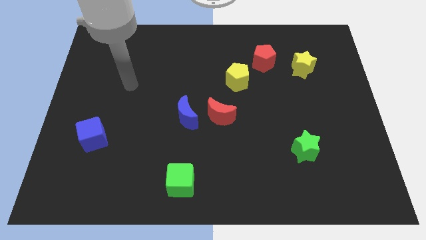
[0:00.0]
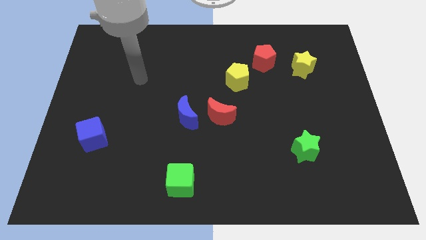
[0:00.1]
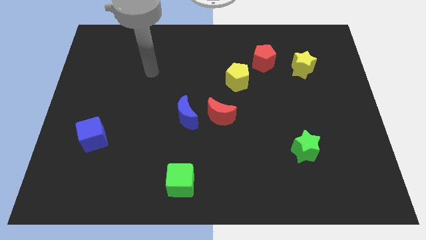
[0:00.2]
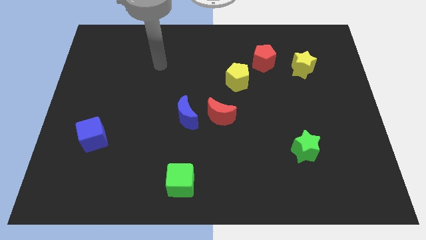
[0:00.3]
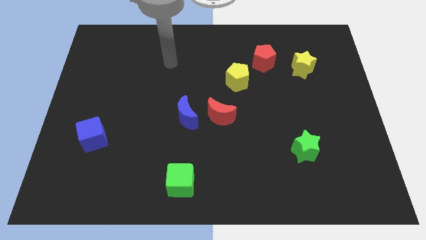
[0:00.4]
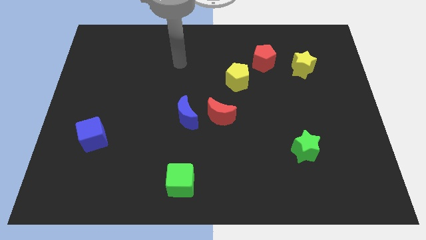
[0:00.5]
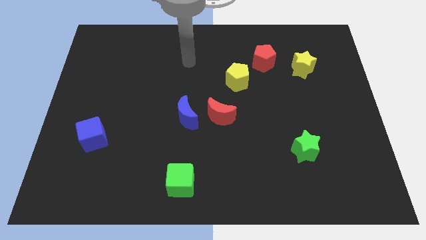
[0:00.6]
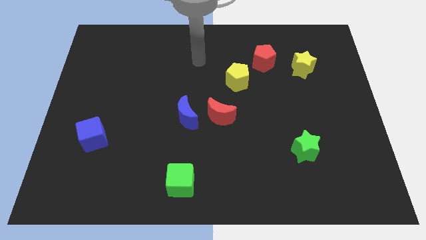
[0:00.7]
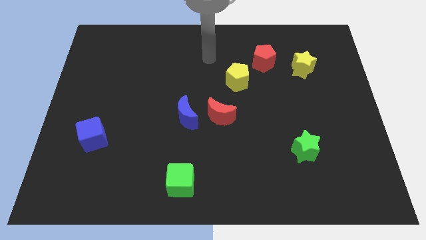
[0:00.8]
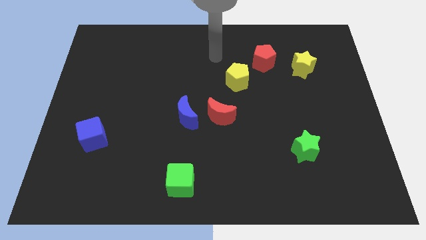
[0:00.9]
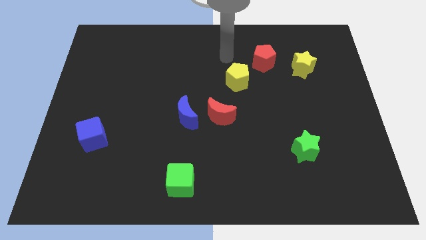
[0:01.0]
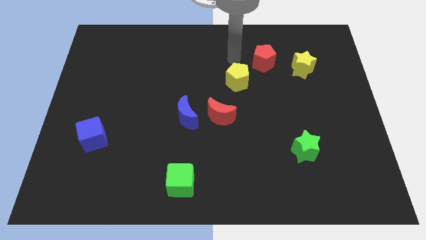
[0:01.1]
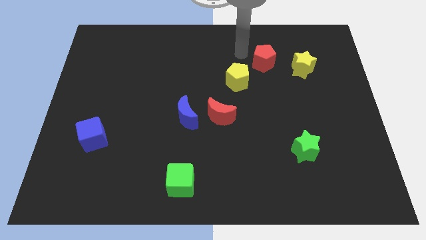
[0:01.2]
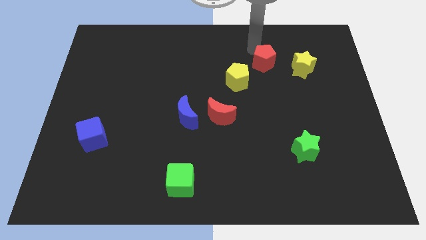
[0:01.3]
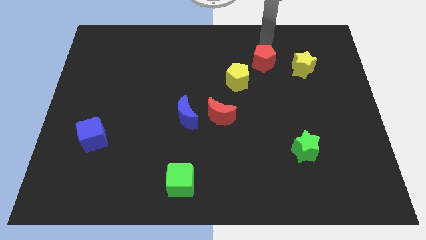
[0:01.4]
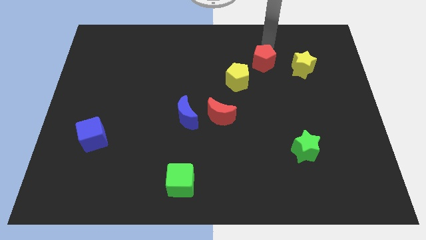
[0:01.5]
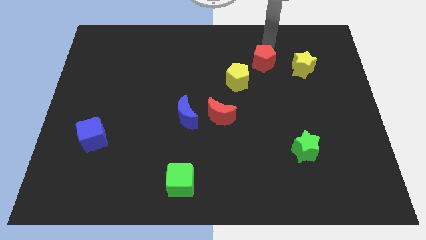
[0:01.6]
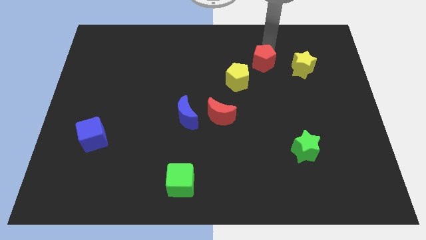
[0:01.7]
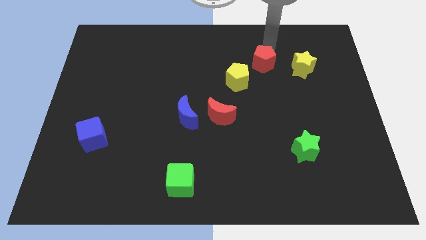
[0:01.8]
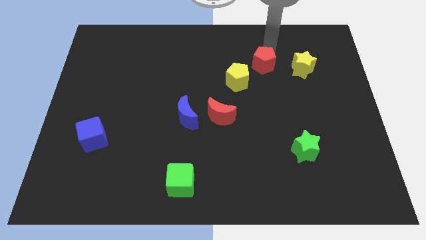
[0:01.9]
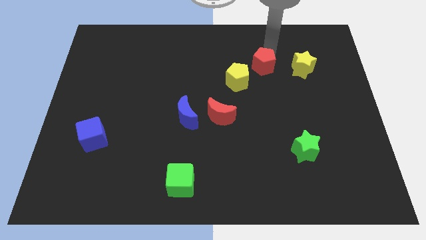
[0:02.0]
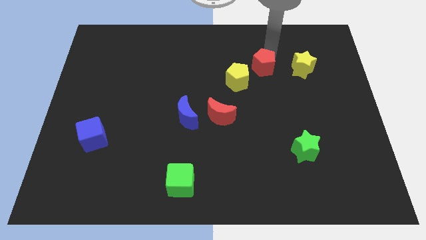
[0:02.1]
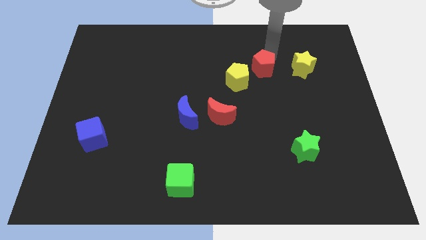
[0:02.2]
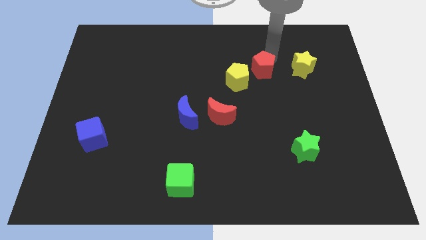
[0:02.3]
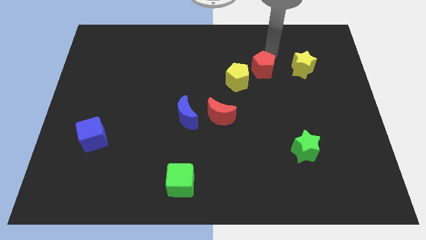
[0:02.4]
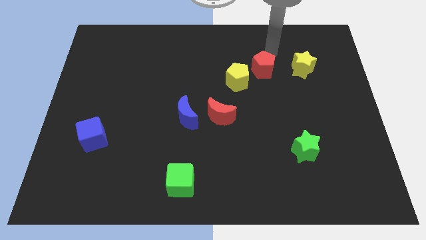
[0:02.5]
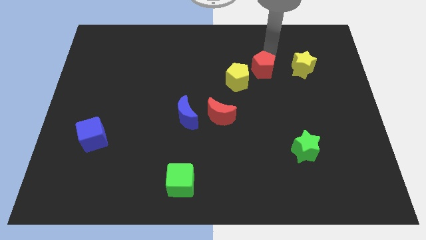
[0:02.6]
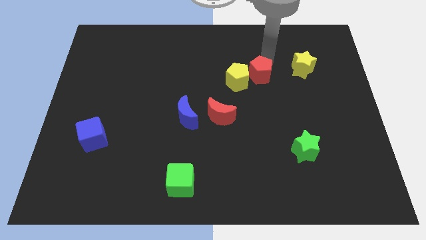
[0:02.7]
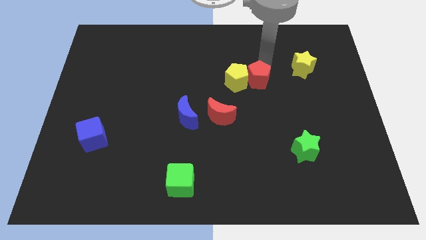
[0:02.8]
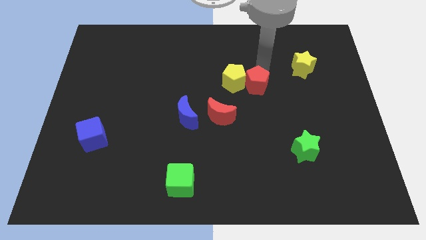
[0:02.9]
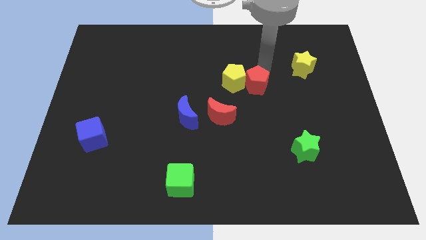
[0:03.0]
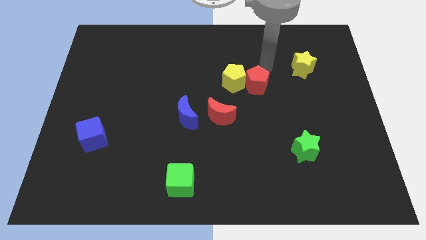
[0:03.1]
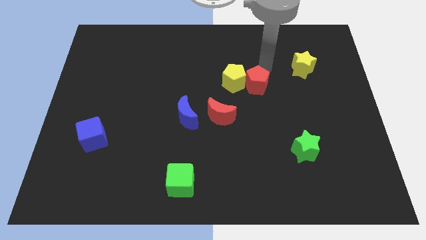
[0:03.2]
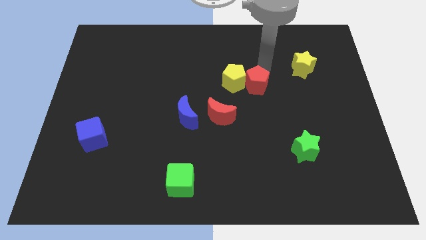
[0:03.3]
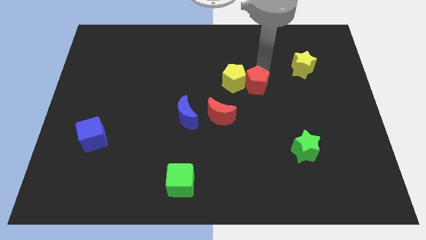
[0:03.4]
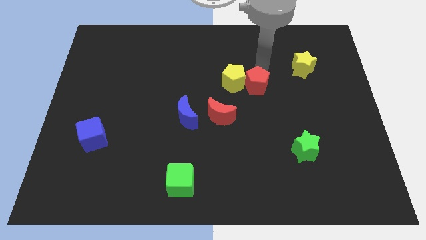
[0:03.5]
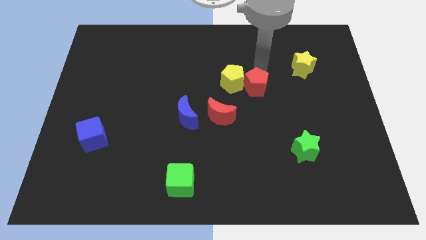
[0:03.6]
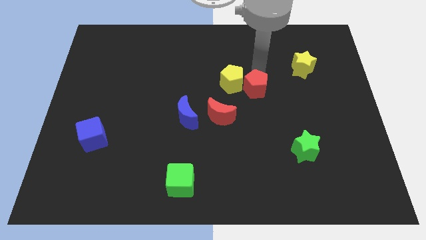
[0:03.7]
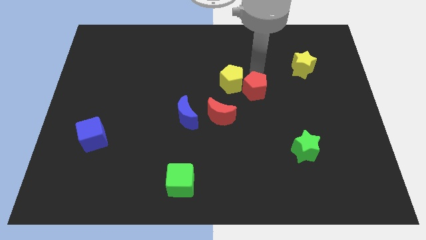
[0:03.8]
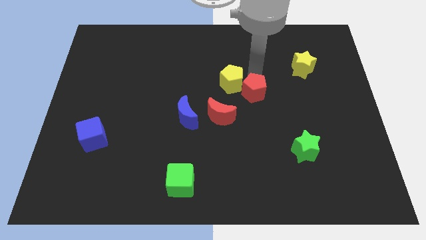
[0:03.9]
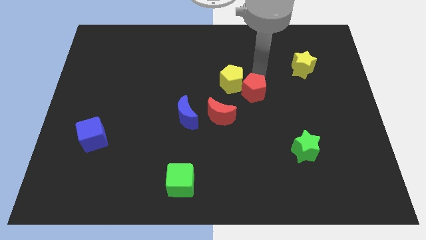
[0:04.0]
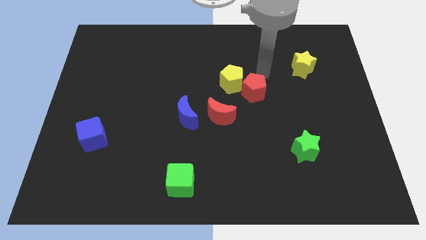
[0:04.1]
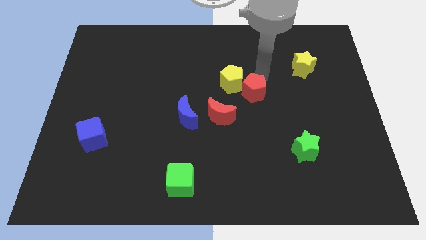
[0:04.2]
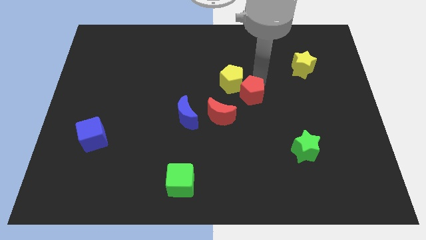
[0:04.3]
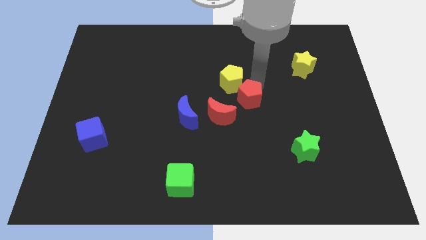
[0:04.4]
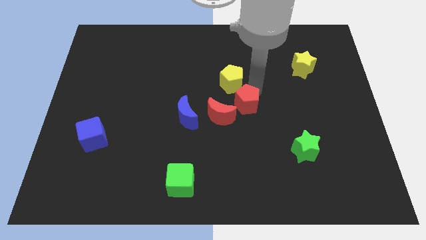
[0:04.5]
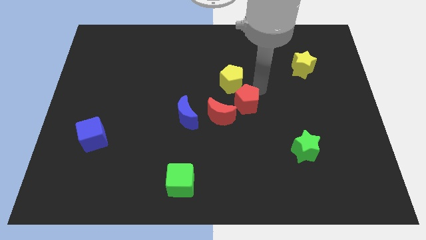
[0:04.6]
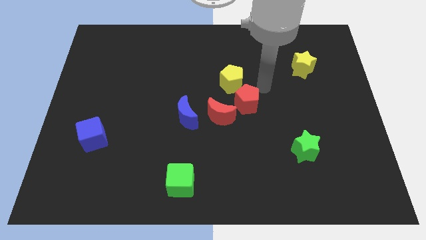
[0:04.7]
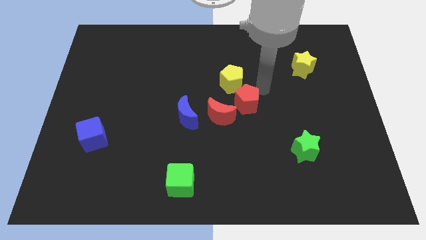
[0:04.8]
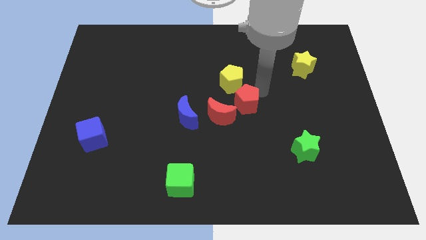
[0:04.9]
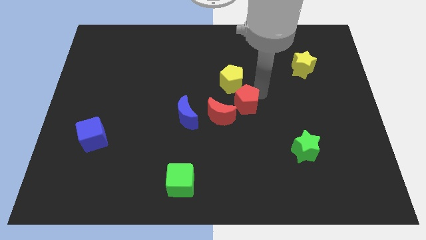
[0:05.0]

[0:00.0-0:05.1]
move the red pentagon to the right side of the blue moon

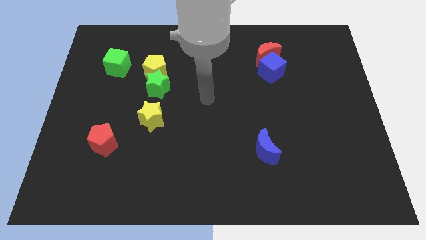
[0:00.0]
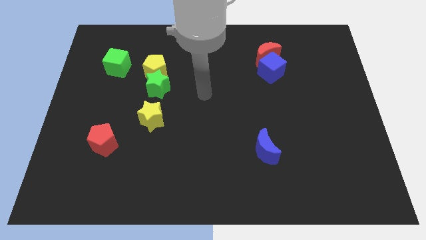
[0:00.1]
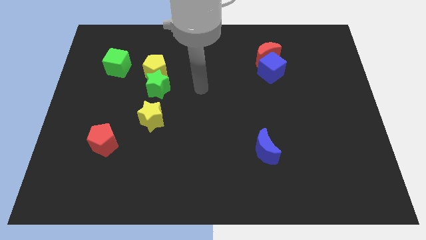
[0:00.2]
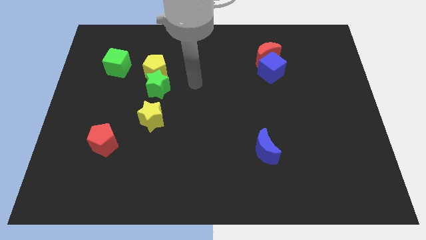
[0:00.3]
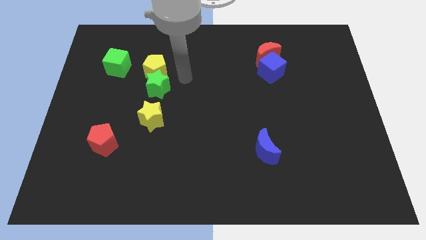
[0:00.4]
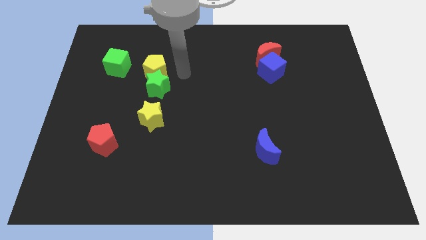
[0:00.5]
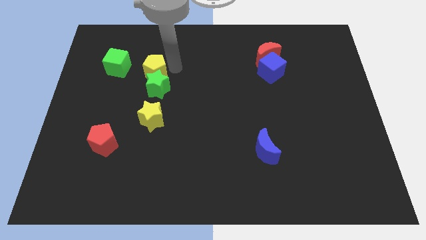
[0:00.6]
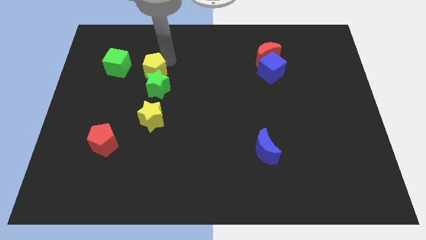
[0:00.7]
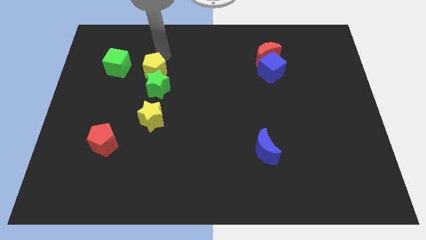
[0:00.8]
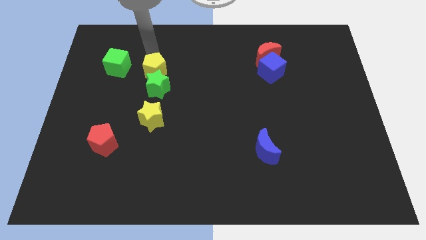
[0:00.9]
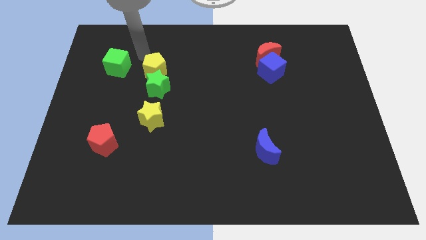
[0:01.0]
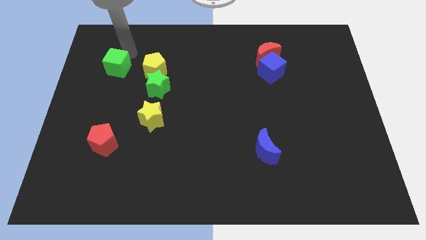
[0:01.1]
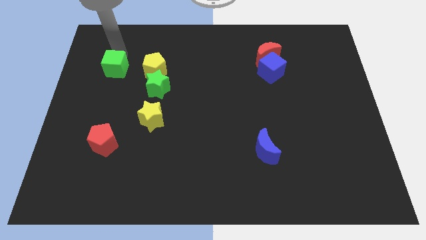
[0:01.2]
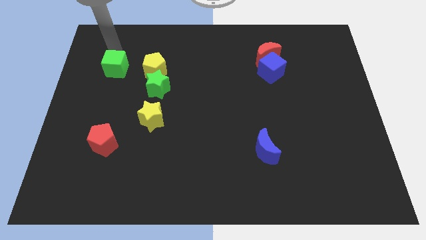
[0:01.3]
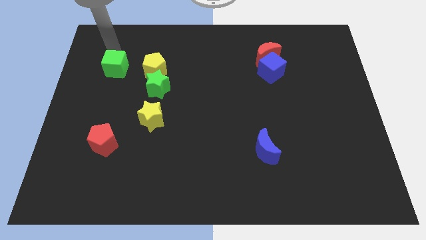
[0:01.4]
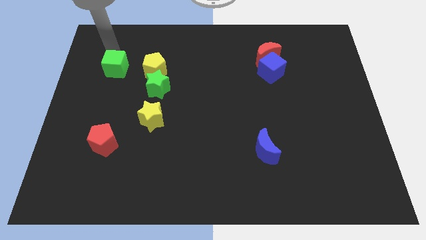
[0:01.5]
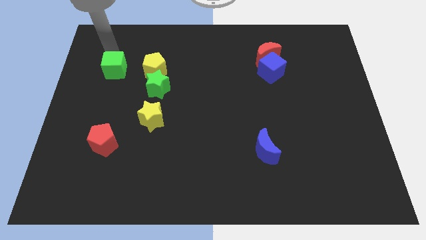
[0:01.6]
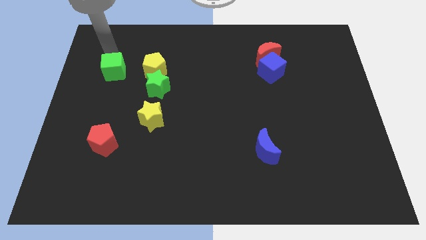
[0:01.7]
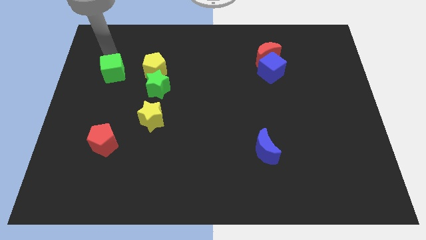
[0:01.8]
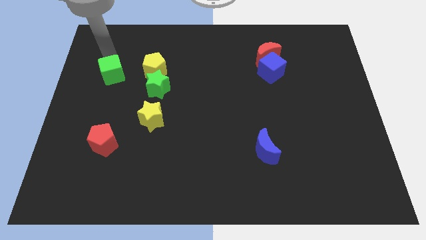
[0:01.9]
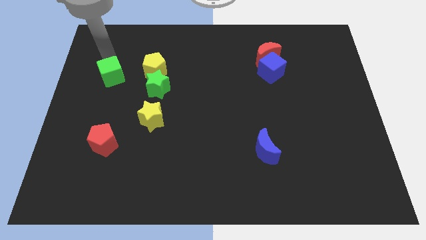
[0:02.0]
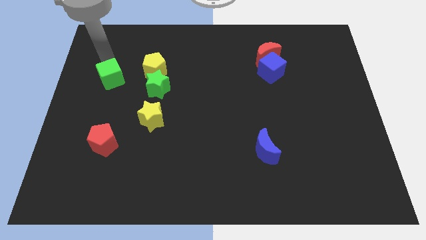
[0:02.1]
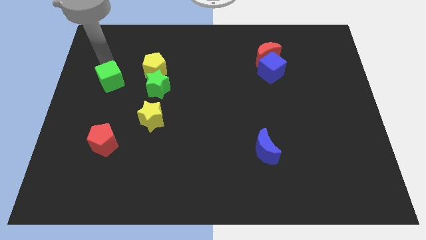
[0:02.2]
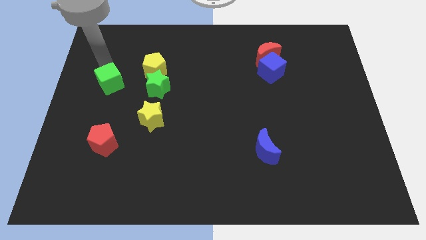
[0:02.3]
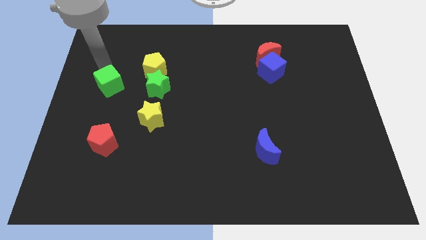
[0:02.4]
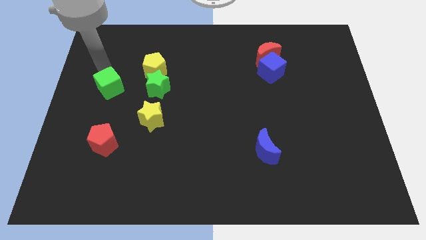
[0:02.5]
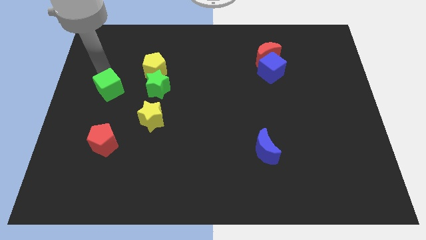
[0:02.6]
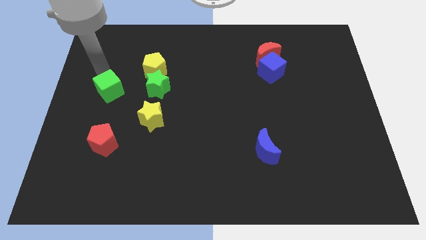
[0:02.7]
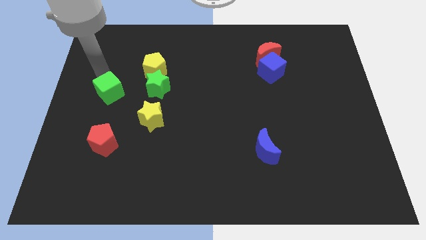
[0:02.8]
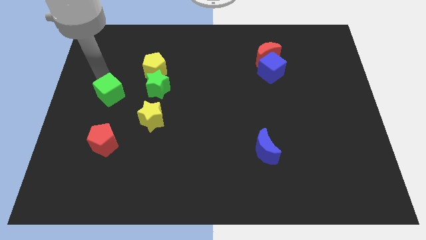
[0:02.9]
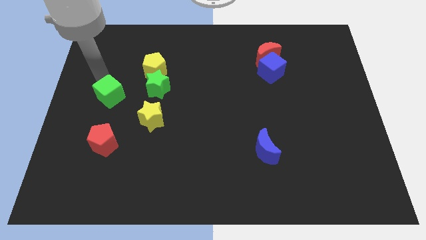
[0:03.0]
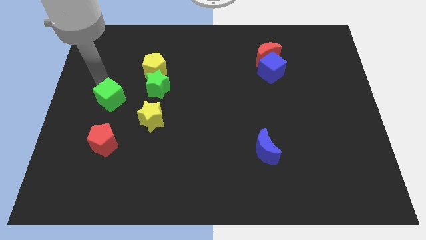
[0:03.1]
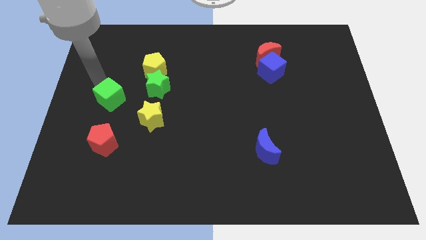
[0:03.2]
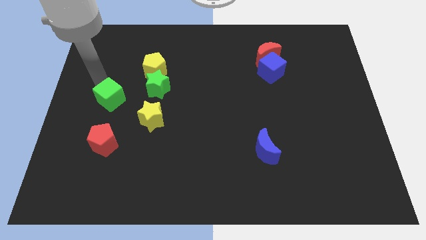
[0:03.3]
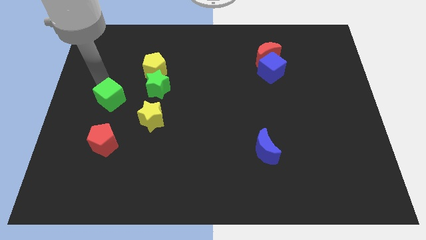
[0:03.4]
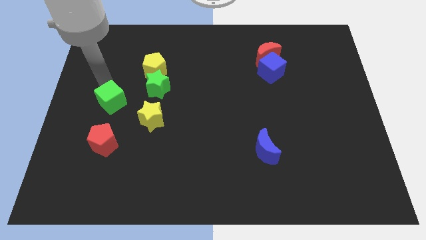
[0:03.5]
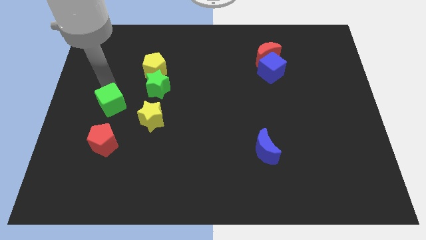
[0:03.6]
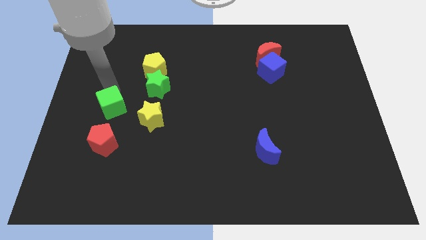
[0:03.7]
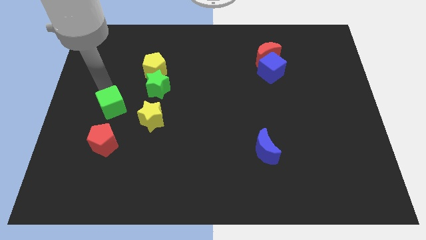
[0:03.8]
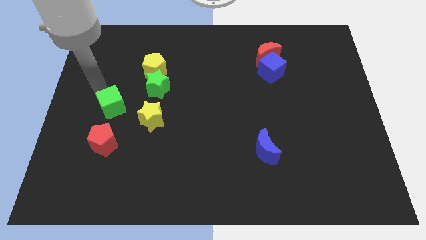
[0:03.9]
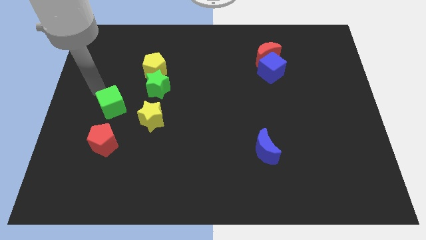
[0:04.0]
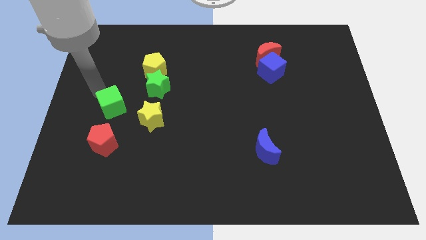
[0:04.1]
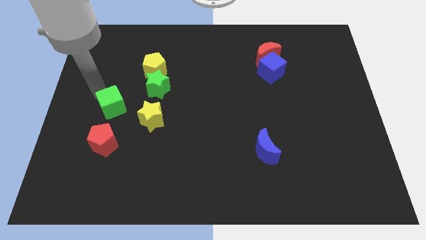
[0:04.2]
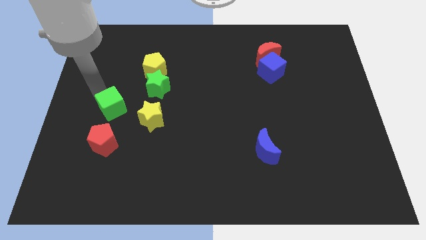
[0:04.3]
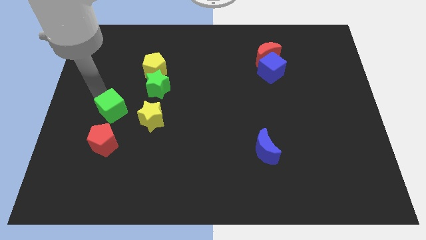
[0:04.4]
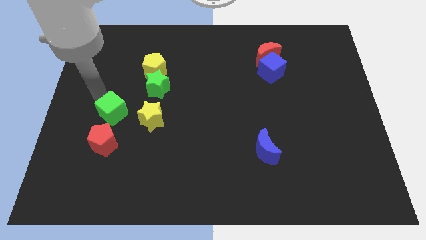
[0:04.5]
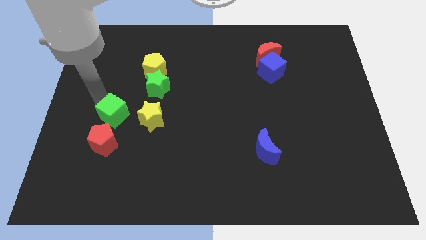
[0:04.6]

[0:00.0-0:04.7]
move the green cube to the top right side of the red pentagon
